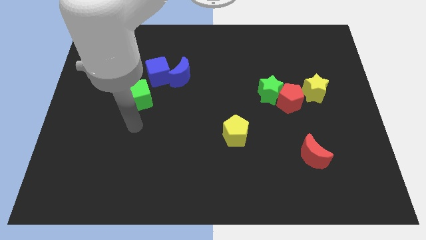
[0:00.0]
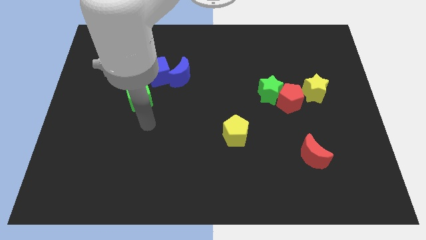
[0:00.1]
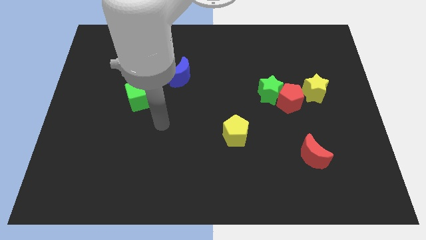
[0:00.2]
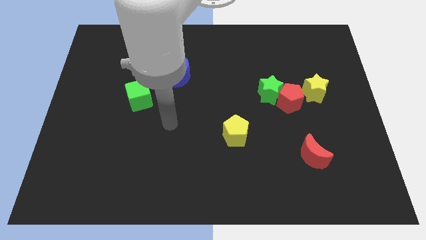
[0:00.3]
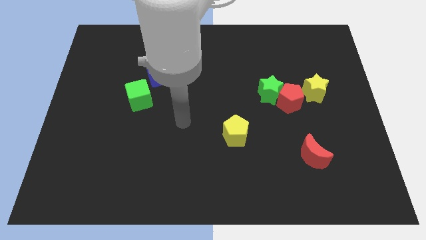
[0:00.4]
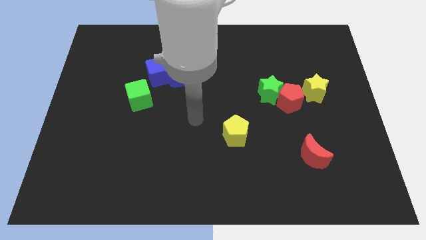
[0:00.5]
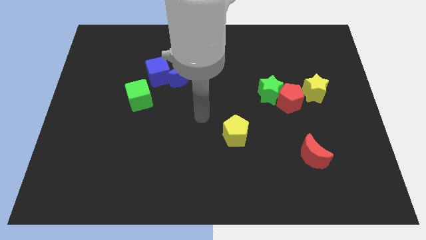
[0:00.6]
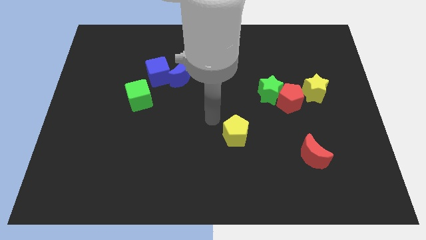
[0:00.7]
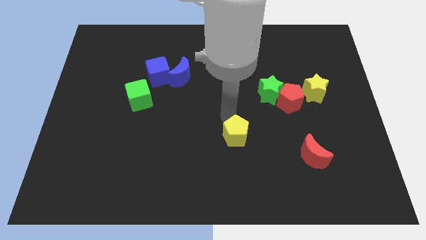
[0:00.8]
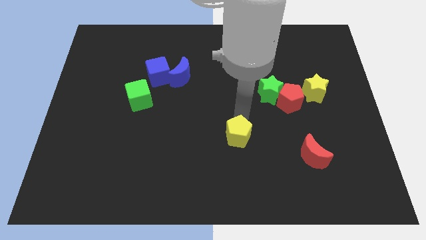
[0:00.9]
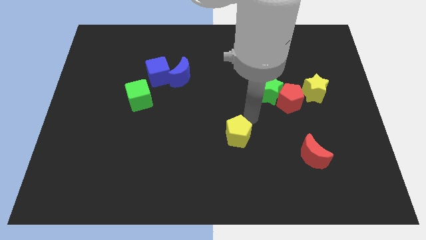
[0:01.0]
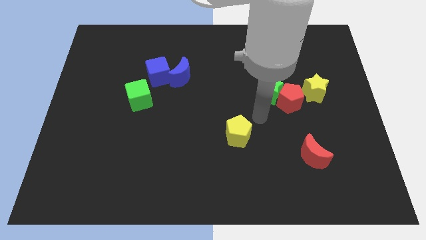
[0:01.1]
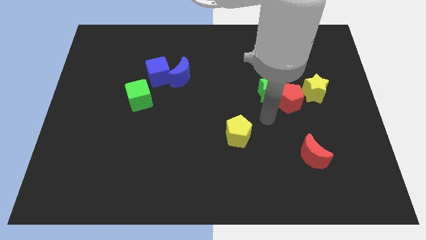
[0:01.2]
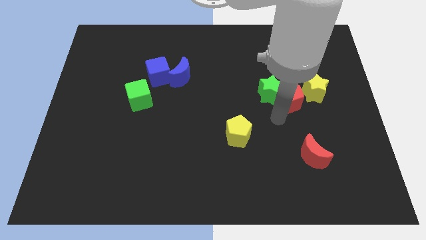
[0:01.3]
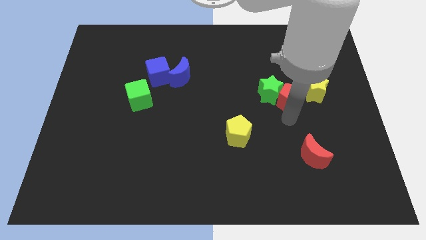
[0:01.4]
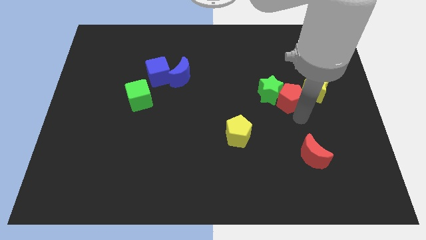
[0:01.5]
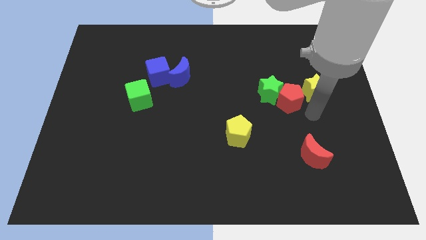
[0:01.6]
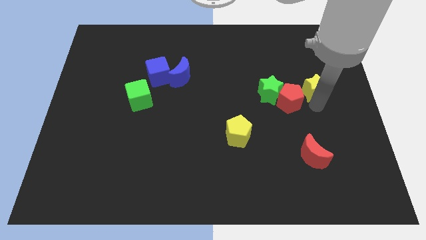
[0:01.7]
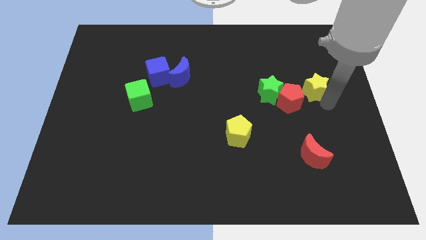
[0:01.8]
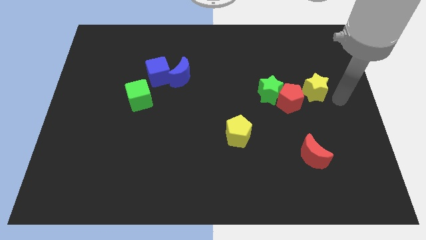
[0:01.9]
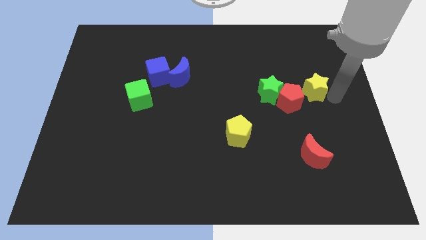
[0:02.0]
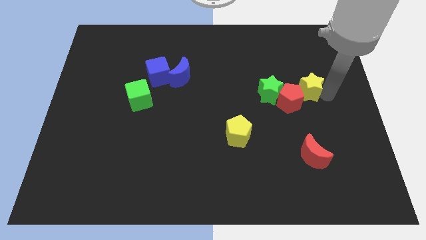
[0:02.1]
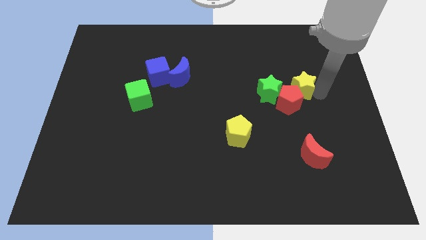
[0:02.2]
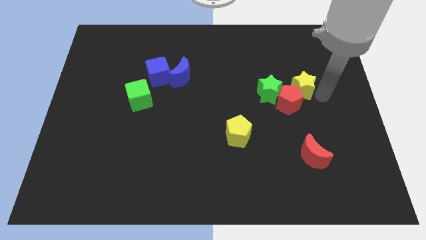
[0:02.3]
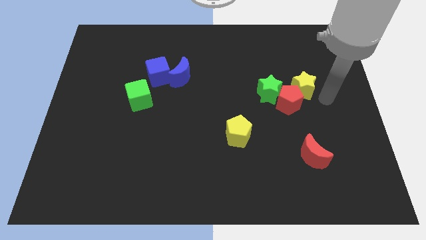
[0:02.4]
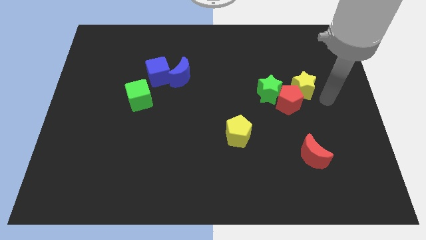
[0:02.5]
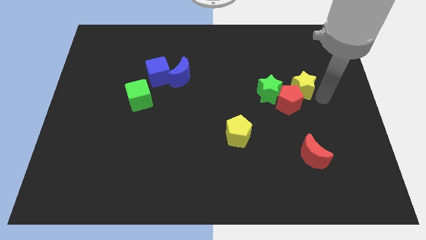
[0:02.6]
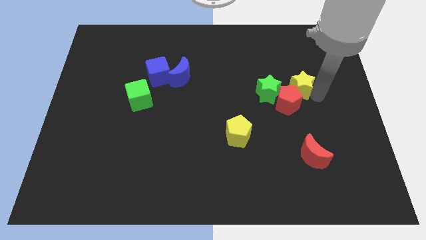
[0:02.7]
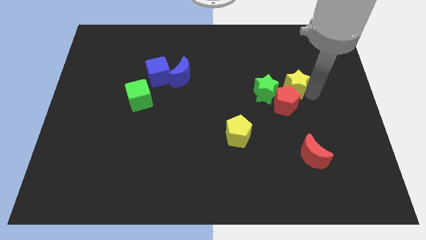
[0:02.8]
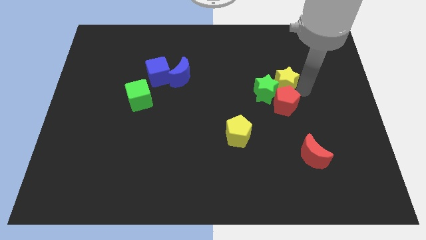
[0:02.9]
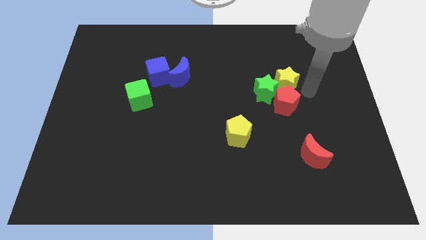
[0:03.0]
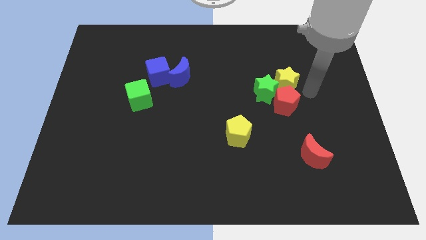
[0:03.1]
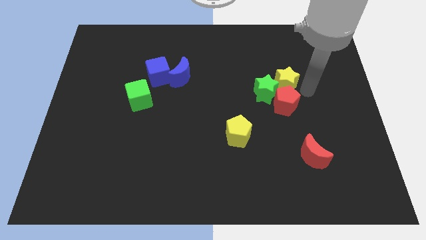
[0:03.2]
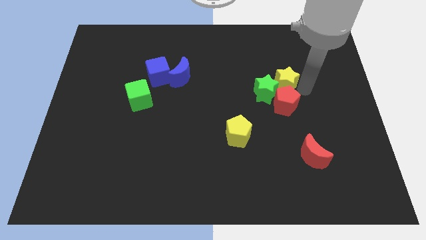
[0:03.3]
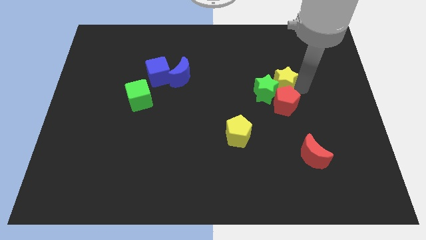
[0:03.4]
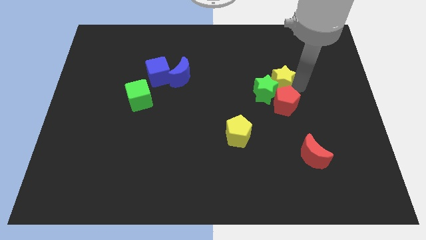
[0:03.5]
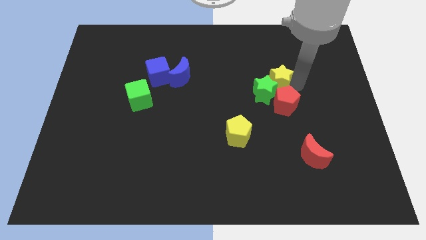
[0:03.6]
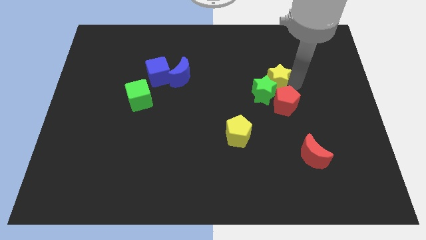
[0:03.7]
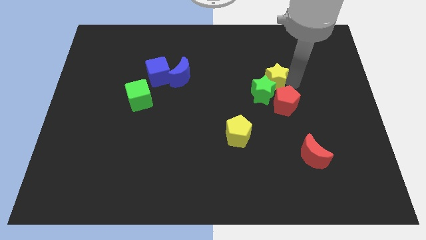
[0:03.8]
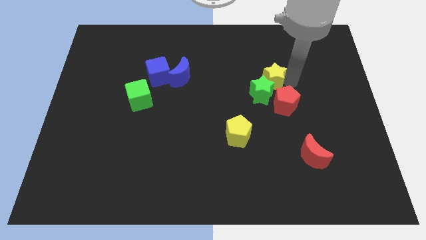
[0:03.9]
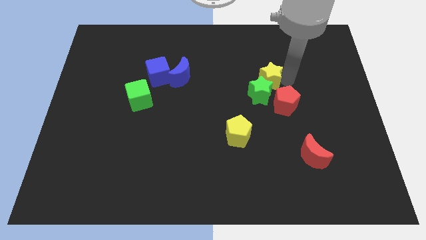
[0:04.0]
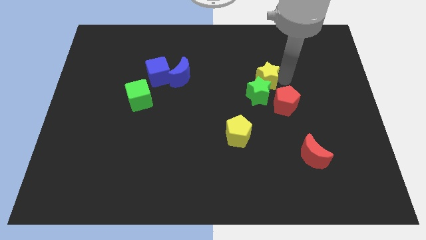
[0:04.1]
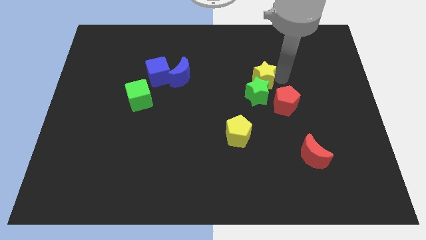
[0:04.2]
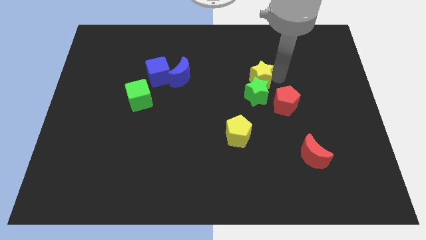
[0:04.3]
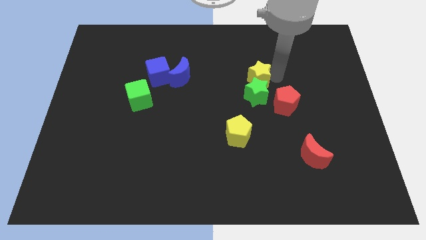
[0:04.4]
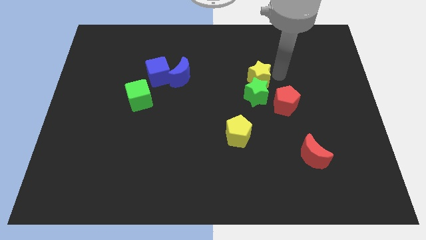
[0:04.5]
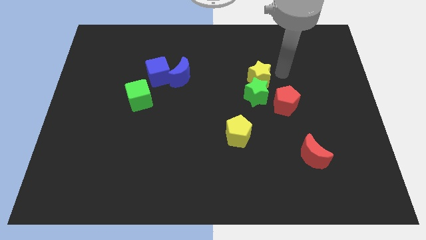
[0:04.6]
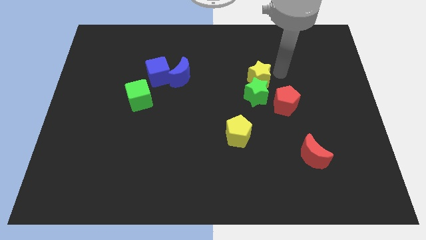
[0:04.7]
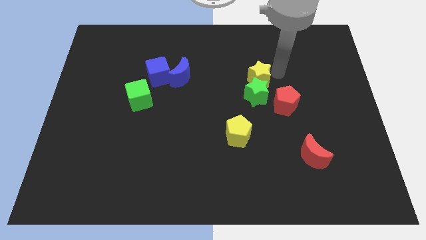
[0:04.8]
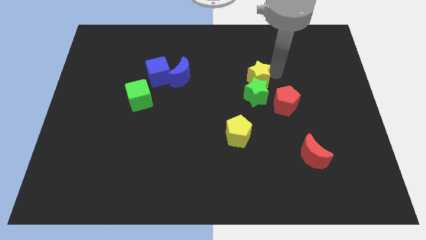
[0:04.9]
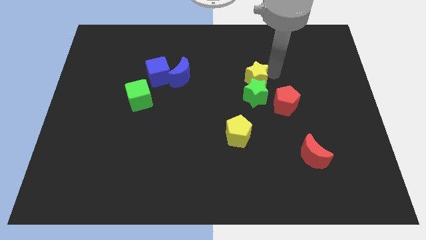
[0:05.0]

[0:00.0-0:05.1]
put the yellow star to the middle of the board

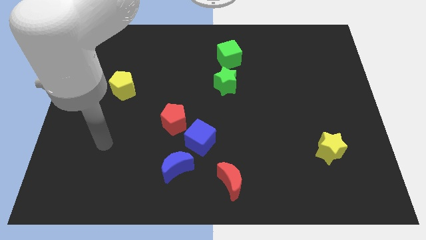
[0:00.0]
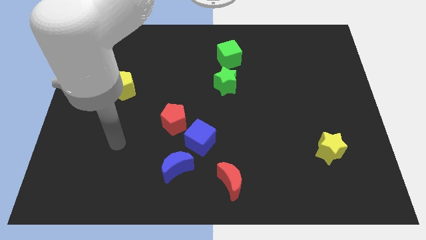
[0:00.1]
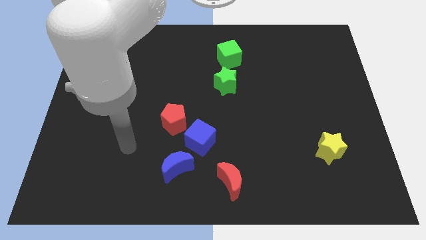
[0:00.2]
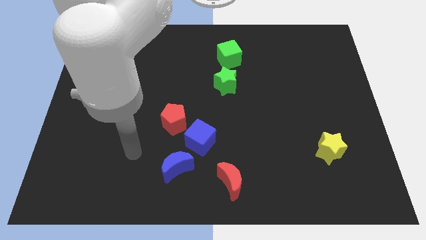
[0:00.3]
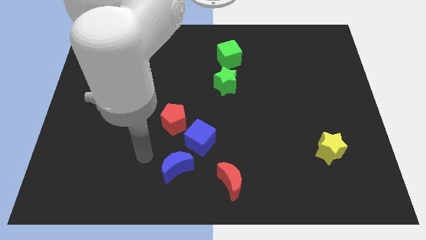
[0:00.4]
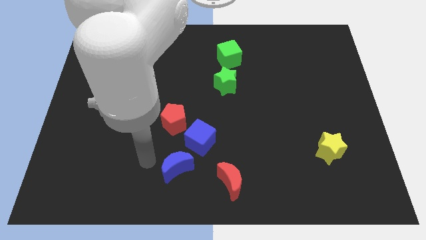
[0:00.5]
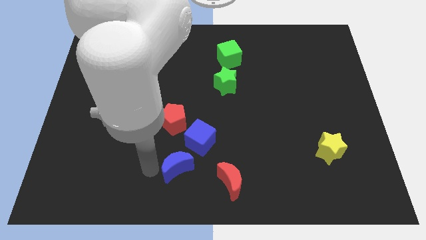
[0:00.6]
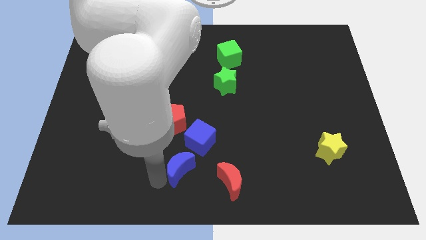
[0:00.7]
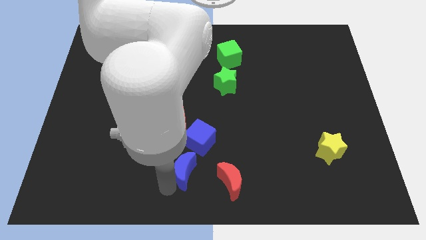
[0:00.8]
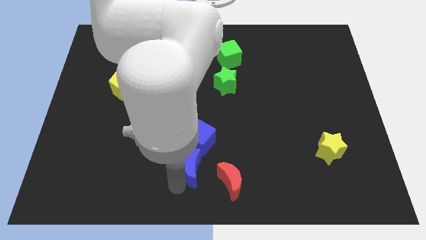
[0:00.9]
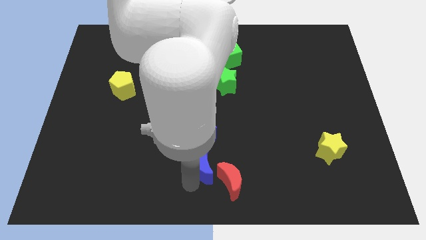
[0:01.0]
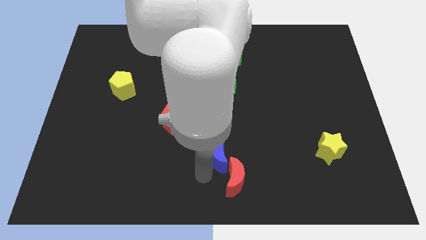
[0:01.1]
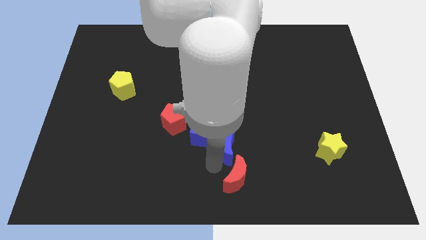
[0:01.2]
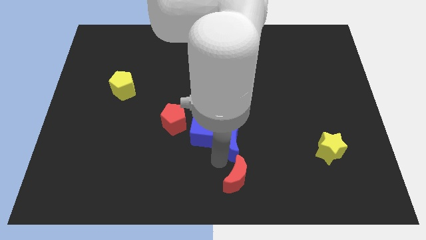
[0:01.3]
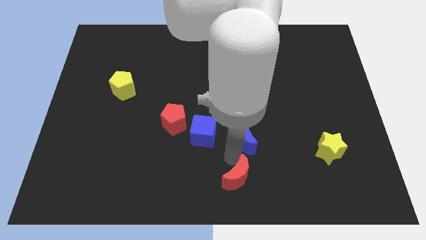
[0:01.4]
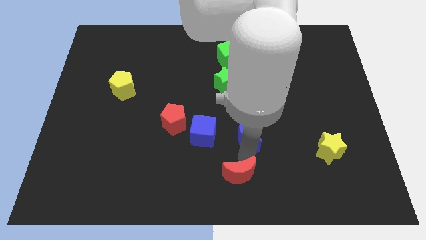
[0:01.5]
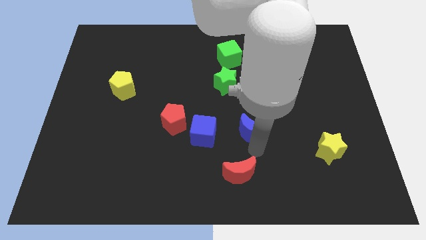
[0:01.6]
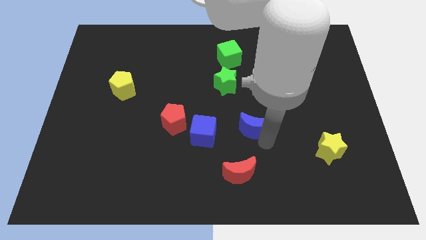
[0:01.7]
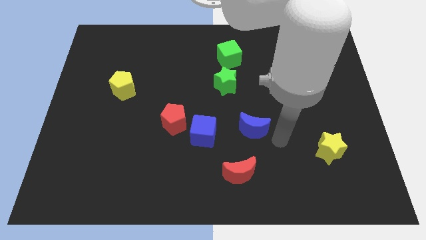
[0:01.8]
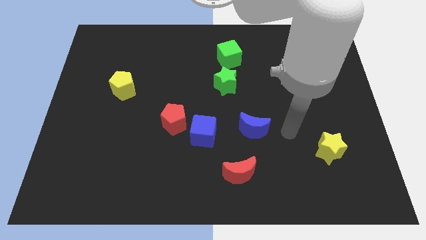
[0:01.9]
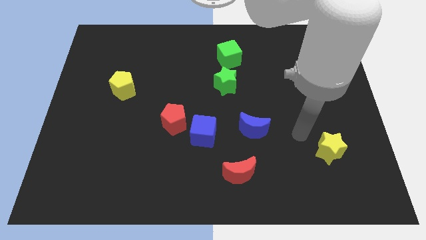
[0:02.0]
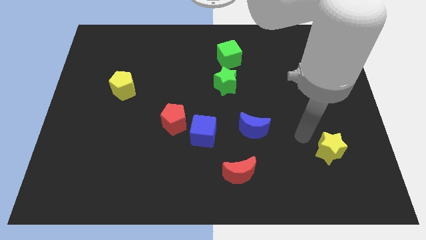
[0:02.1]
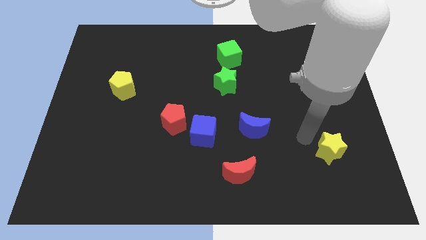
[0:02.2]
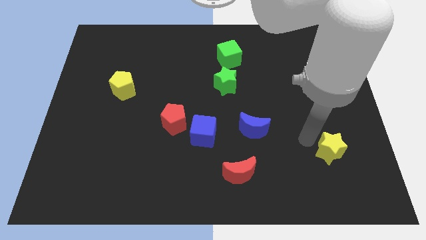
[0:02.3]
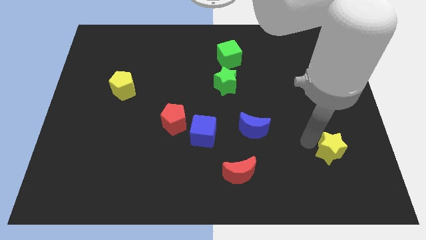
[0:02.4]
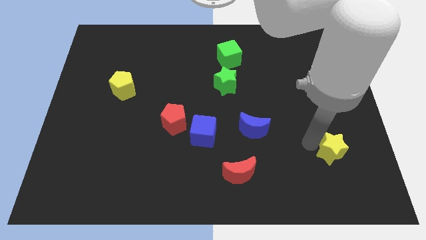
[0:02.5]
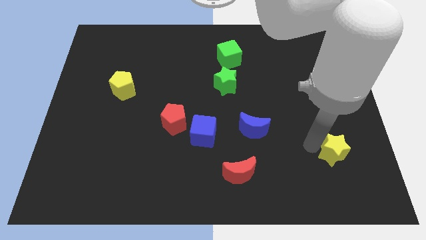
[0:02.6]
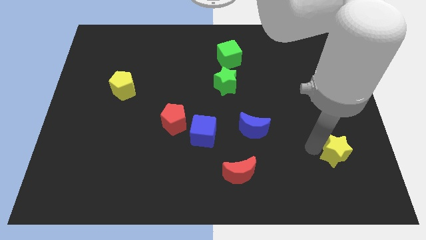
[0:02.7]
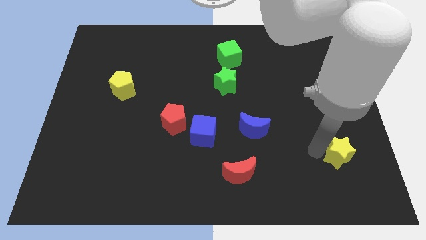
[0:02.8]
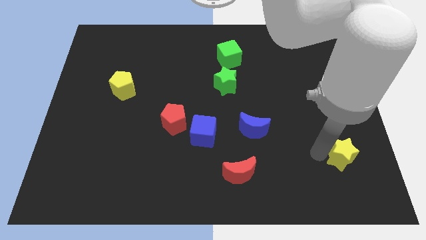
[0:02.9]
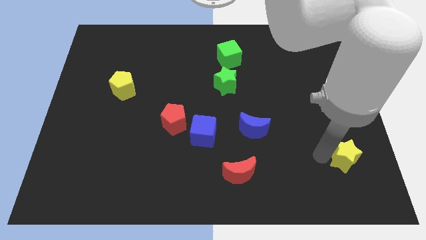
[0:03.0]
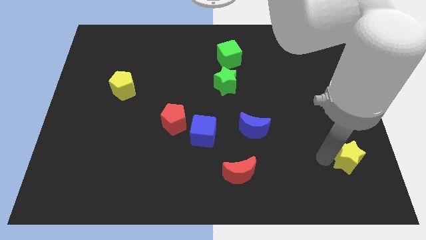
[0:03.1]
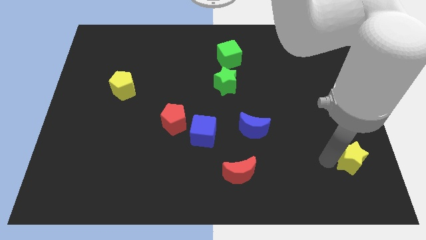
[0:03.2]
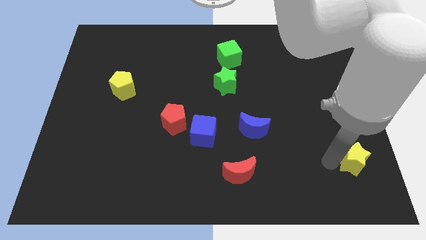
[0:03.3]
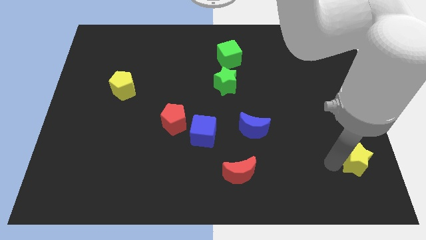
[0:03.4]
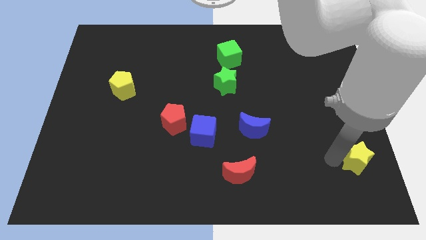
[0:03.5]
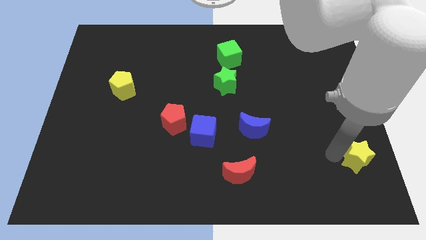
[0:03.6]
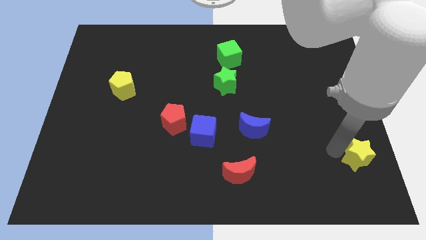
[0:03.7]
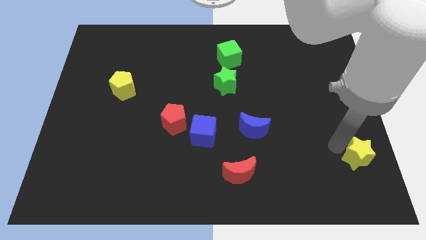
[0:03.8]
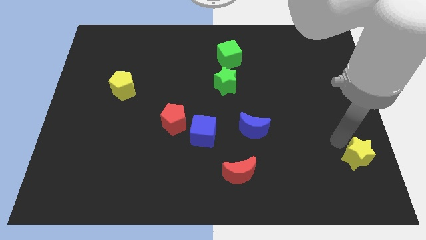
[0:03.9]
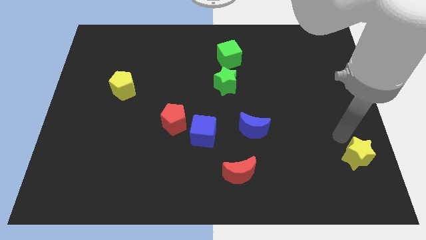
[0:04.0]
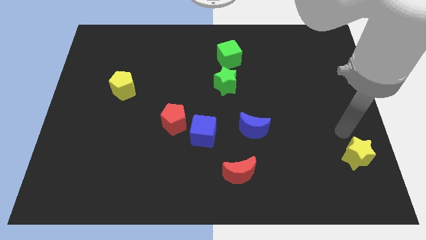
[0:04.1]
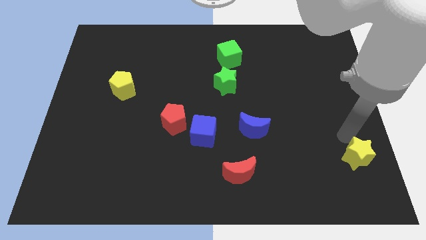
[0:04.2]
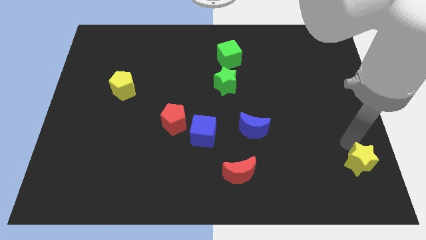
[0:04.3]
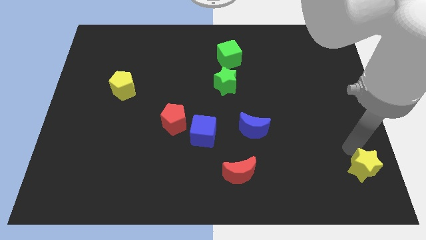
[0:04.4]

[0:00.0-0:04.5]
slide the yellow star to the bottom right
